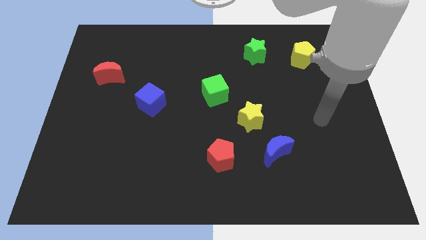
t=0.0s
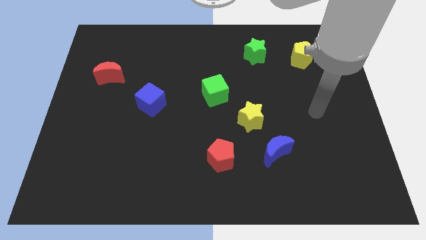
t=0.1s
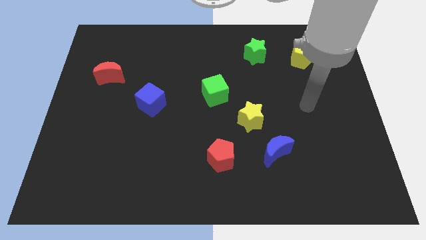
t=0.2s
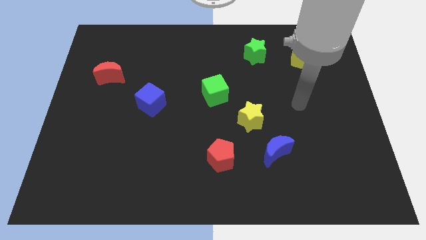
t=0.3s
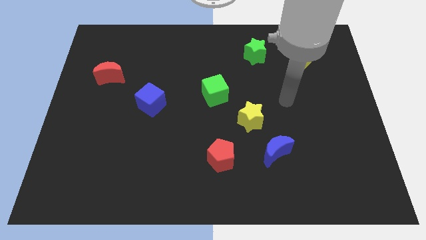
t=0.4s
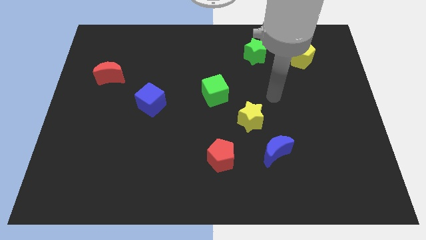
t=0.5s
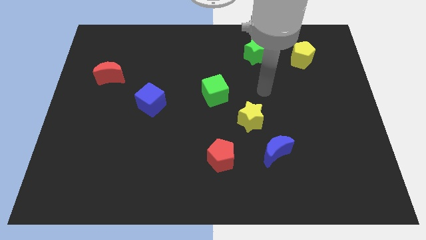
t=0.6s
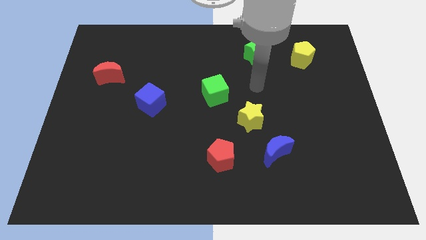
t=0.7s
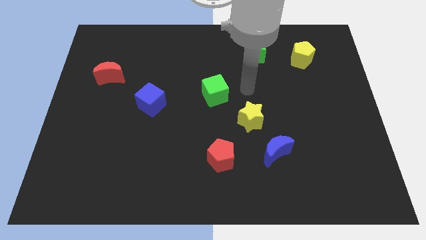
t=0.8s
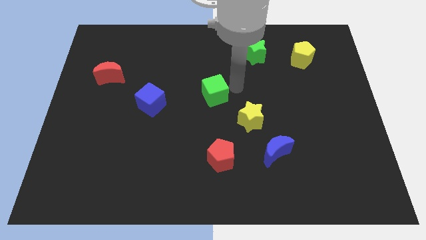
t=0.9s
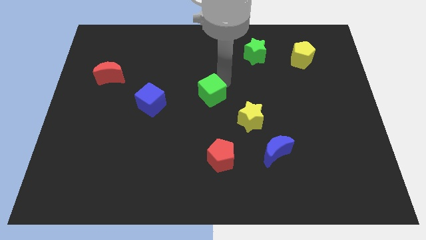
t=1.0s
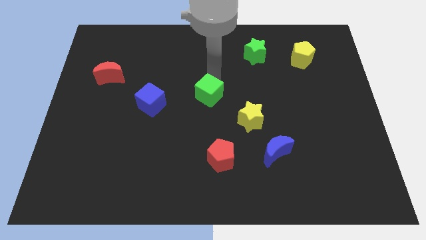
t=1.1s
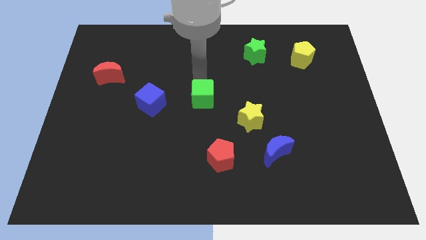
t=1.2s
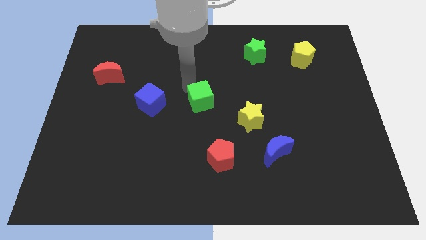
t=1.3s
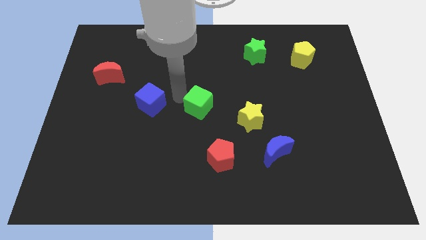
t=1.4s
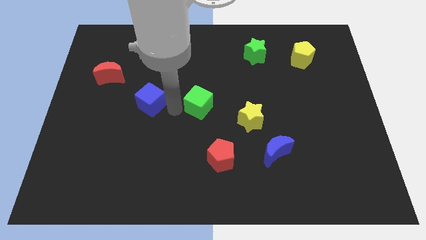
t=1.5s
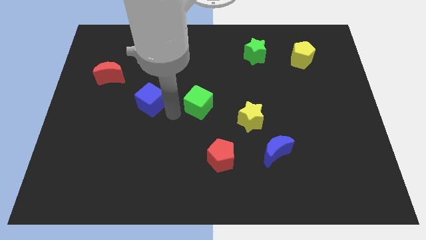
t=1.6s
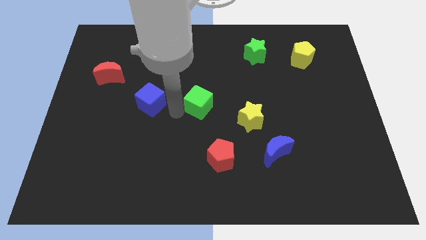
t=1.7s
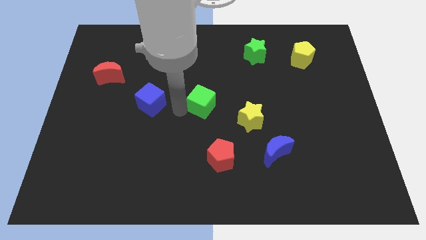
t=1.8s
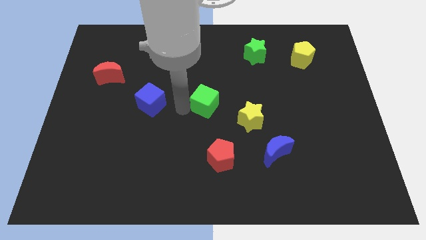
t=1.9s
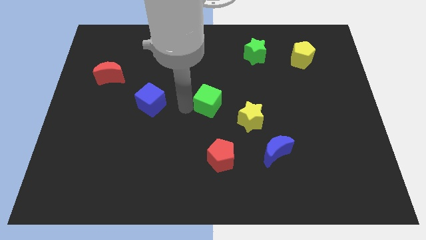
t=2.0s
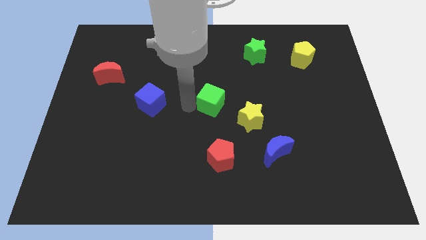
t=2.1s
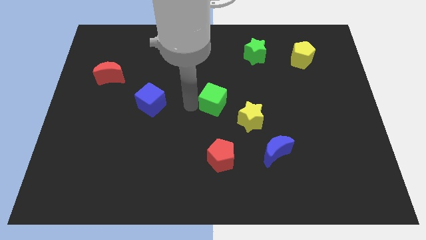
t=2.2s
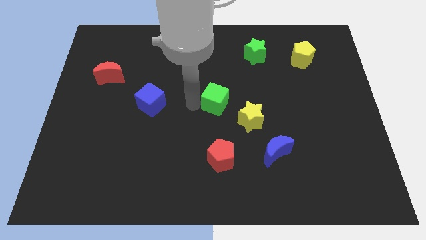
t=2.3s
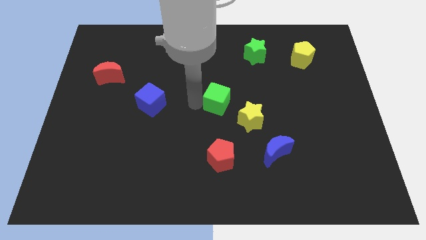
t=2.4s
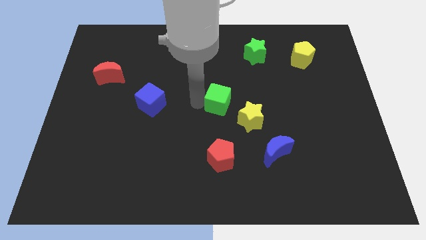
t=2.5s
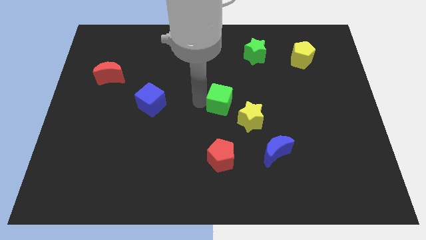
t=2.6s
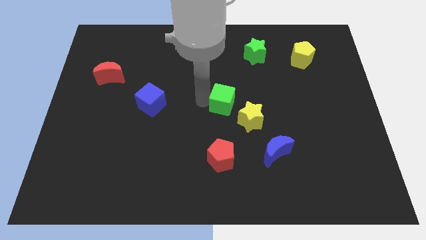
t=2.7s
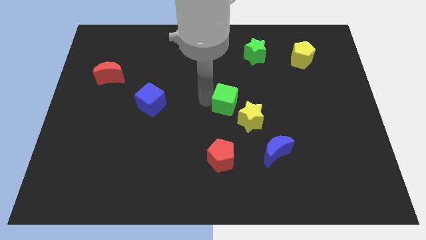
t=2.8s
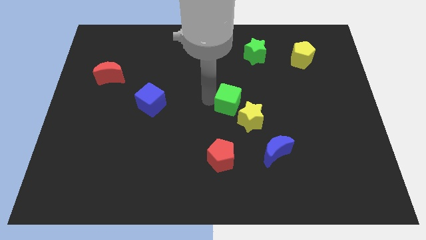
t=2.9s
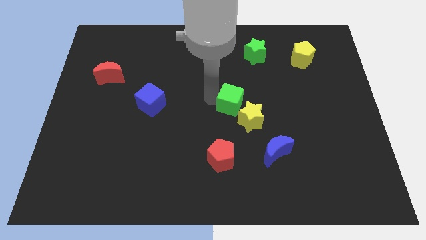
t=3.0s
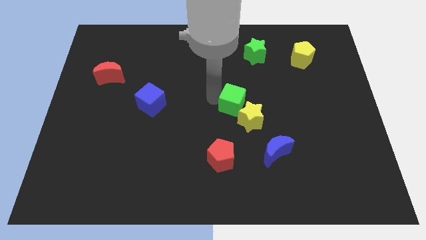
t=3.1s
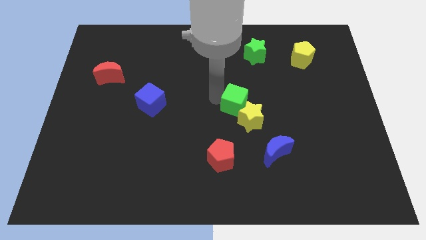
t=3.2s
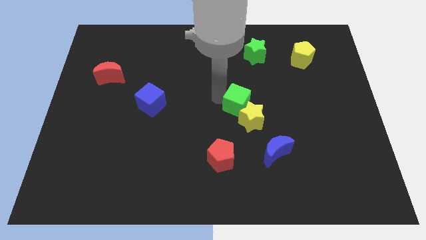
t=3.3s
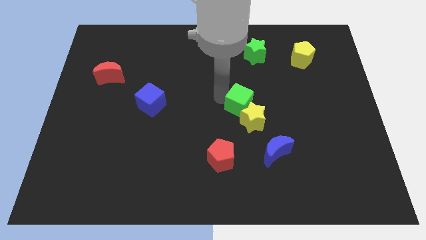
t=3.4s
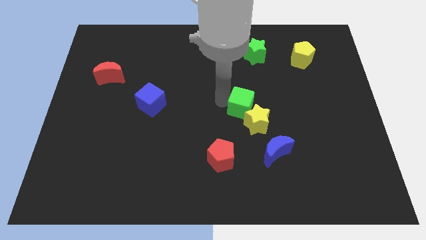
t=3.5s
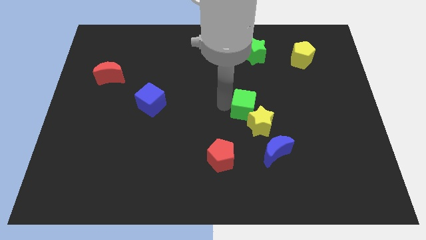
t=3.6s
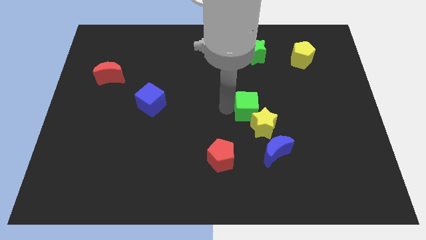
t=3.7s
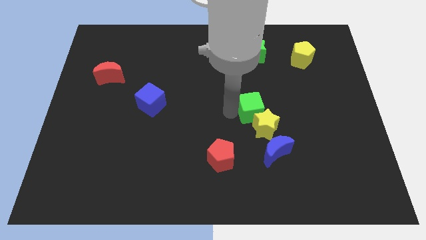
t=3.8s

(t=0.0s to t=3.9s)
move the green cube to the right a little

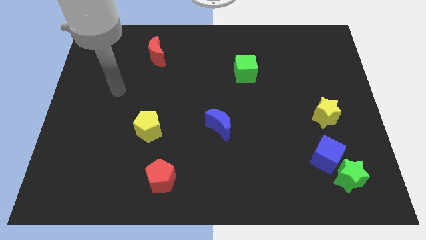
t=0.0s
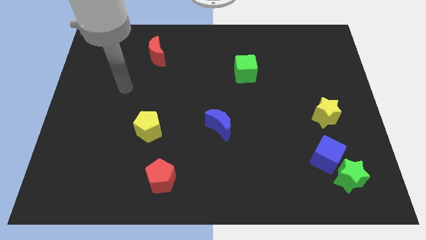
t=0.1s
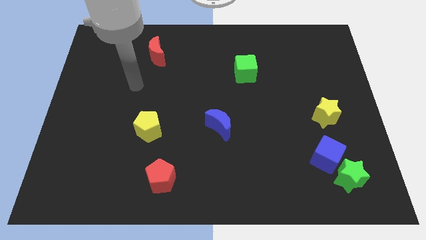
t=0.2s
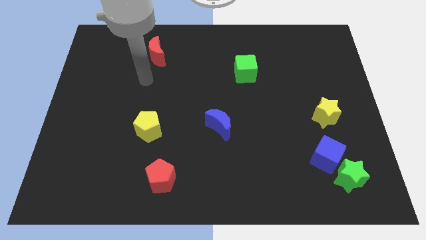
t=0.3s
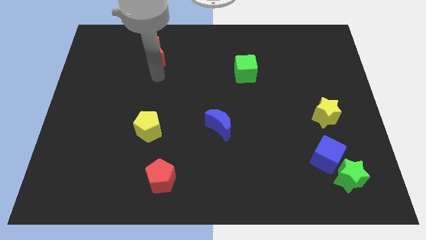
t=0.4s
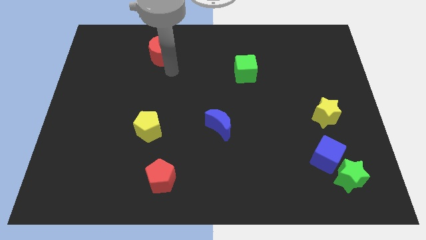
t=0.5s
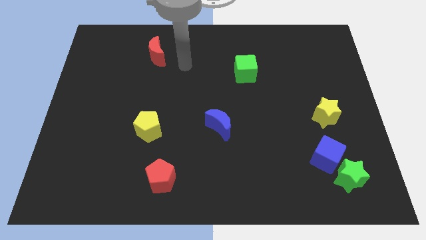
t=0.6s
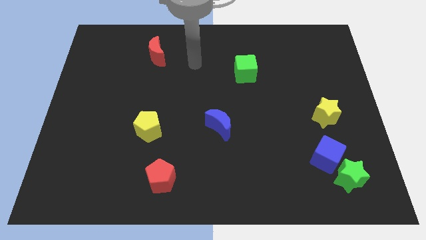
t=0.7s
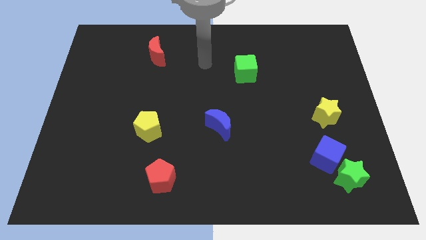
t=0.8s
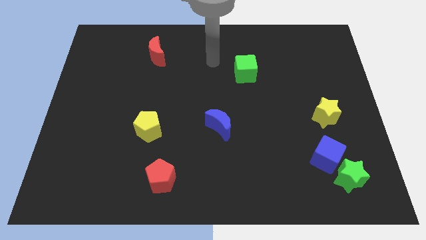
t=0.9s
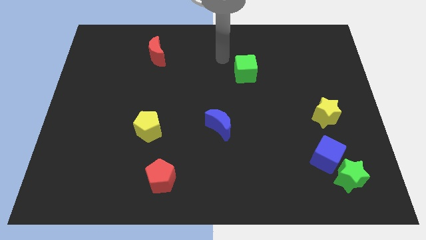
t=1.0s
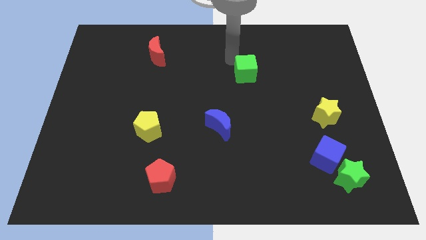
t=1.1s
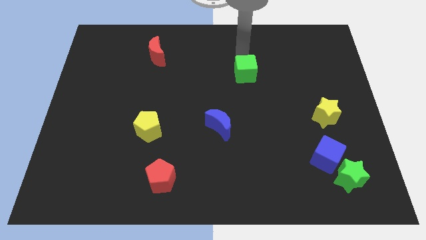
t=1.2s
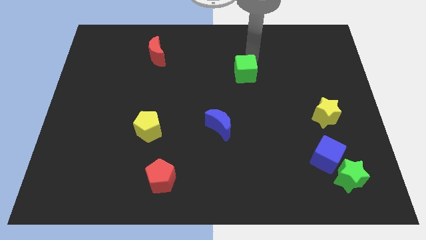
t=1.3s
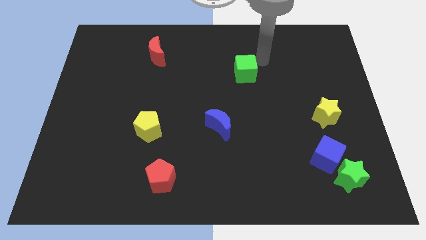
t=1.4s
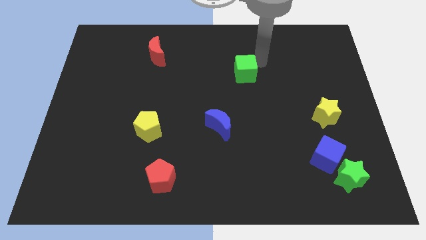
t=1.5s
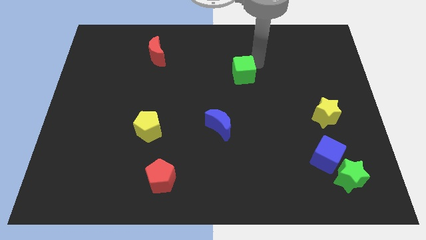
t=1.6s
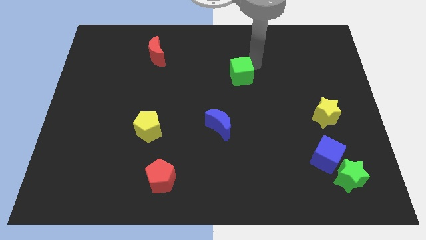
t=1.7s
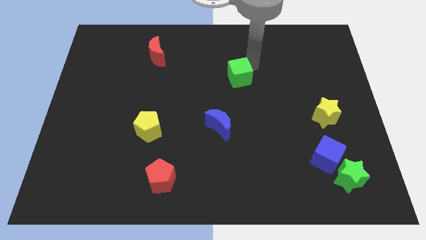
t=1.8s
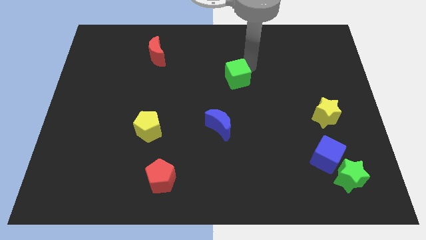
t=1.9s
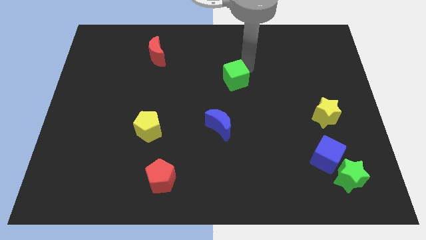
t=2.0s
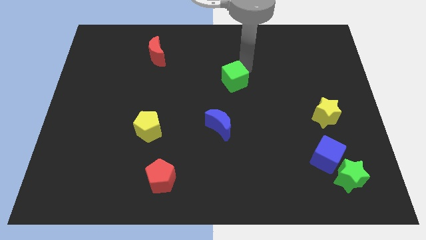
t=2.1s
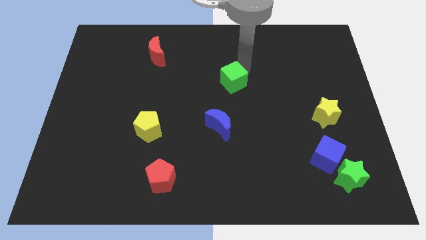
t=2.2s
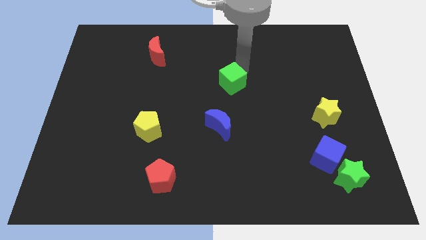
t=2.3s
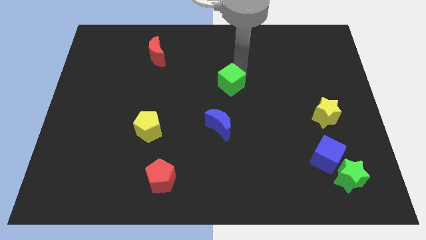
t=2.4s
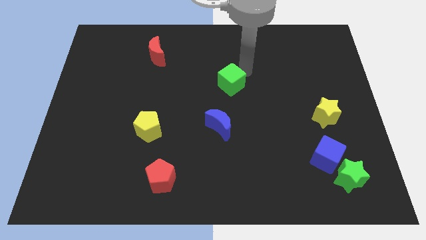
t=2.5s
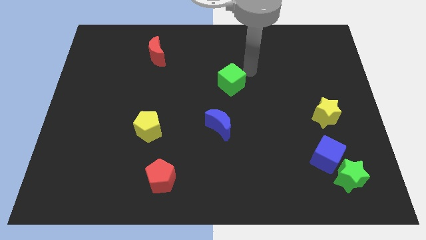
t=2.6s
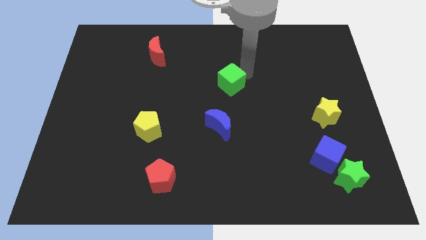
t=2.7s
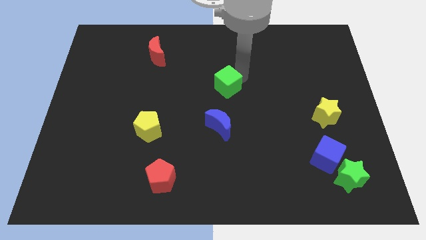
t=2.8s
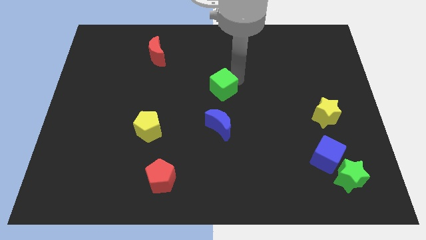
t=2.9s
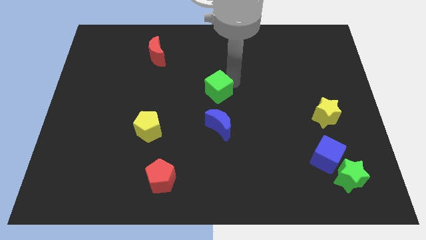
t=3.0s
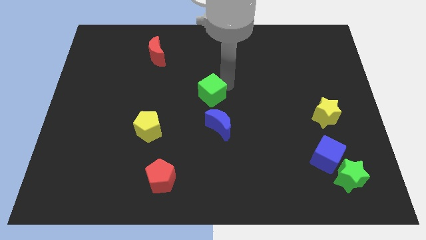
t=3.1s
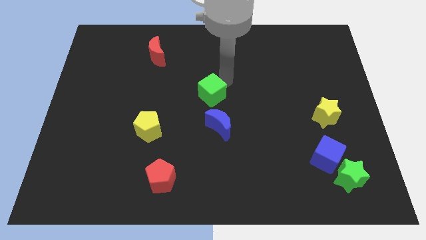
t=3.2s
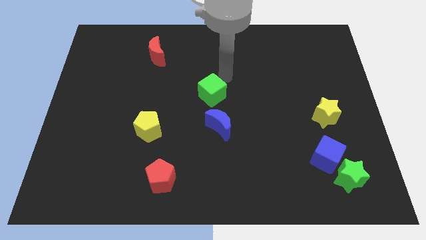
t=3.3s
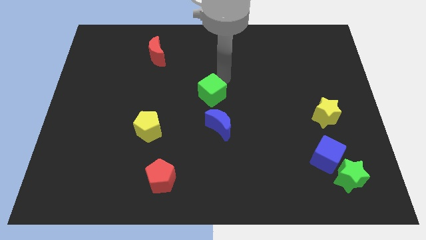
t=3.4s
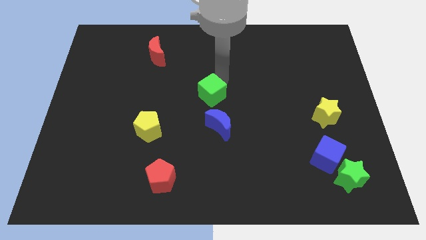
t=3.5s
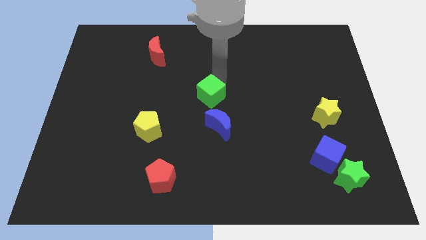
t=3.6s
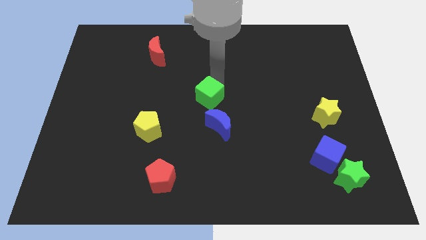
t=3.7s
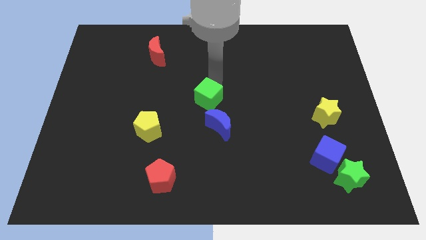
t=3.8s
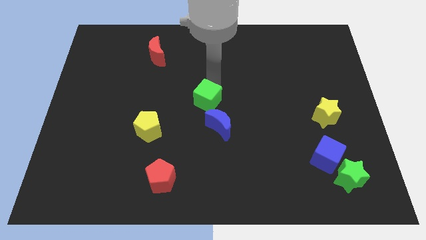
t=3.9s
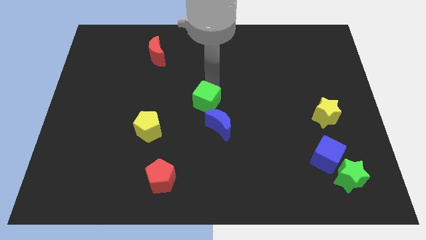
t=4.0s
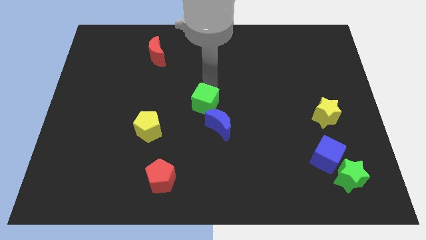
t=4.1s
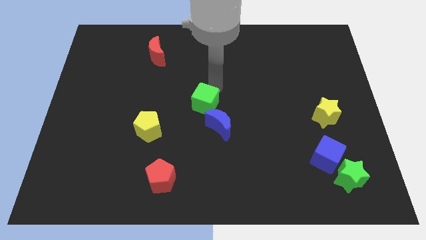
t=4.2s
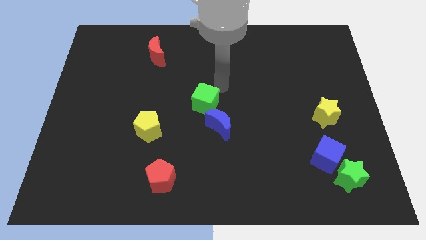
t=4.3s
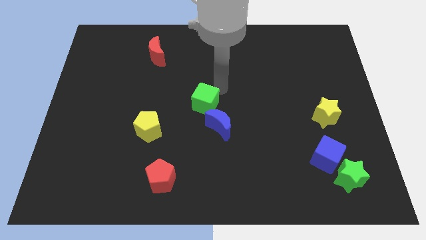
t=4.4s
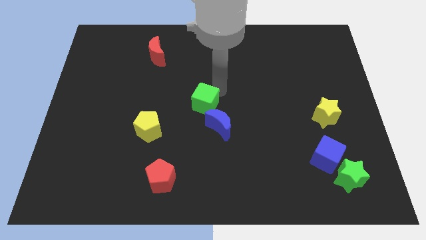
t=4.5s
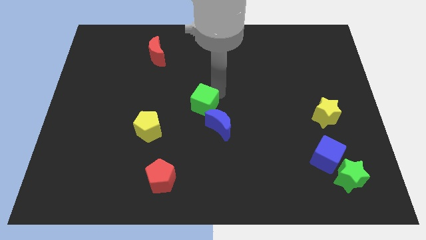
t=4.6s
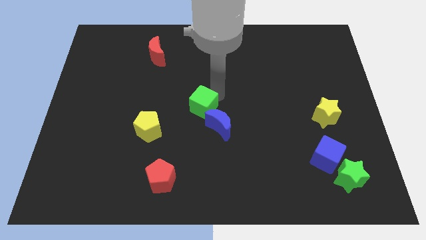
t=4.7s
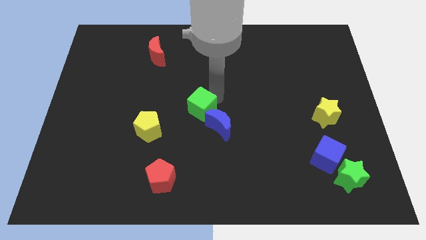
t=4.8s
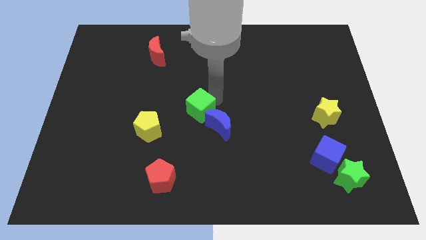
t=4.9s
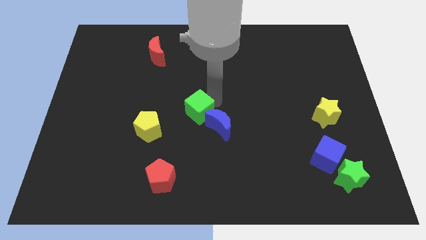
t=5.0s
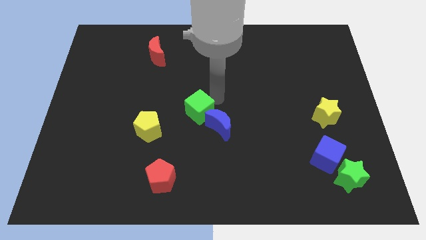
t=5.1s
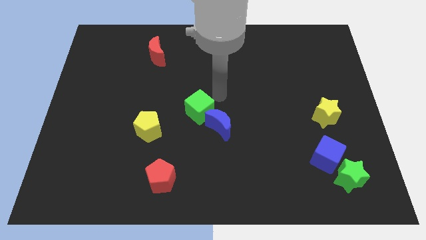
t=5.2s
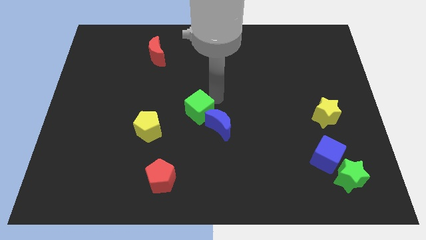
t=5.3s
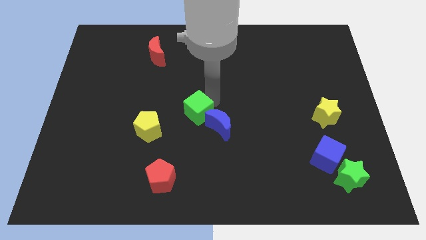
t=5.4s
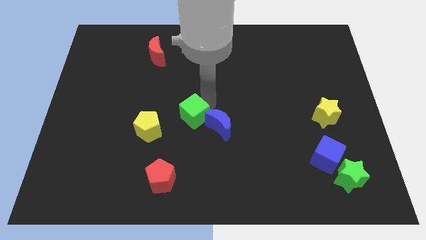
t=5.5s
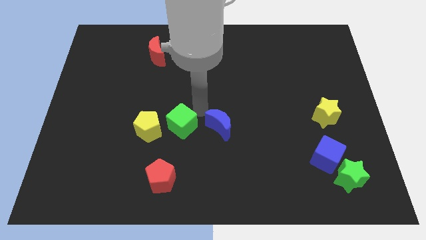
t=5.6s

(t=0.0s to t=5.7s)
move the green cube down and to the left diagonally
